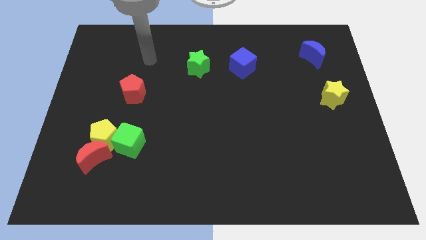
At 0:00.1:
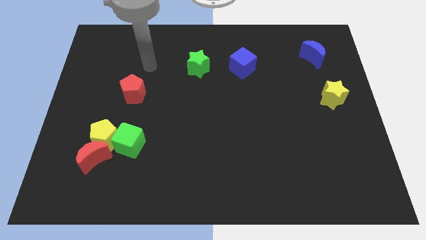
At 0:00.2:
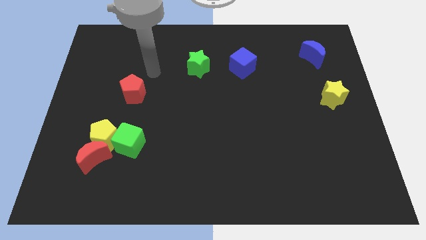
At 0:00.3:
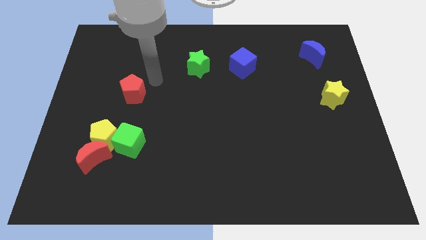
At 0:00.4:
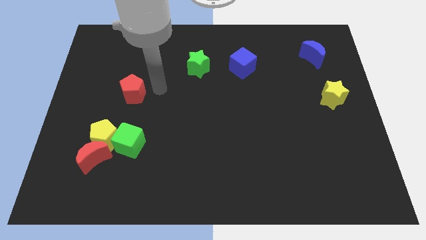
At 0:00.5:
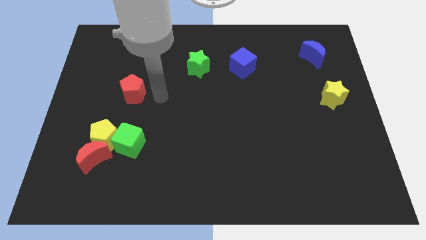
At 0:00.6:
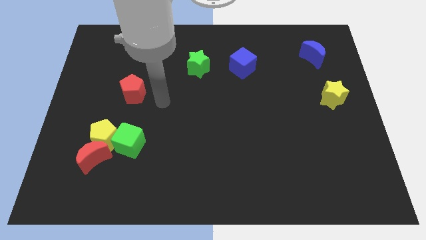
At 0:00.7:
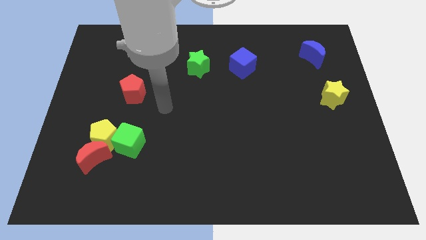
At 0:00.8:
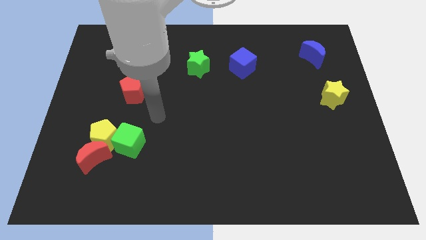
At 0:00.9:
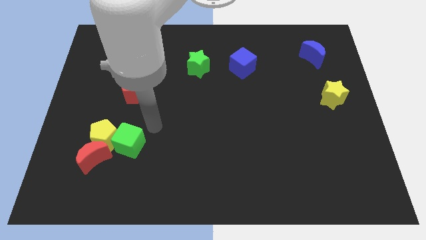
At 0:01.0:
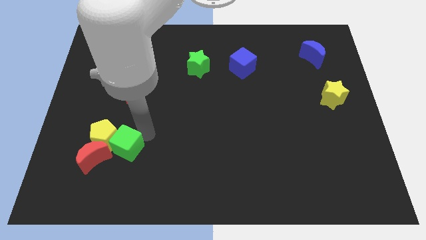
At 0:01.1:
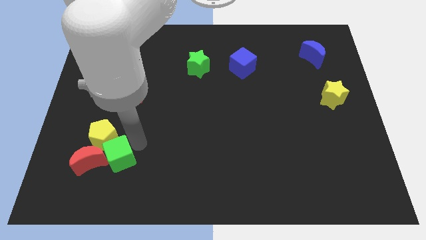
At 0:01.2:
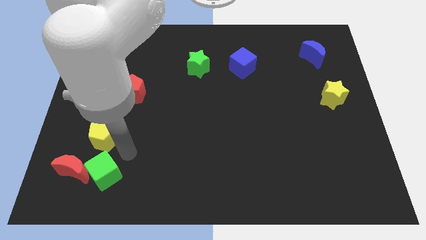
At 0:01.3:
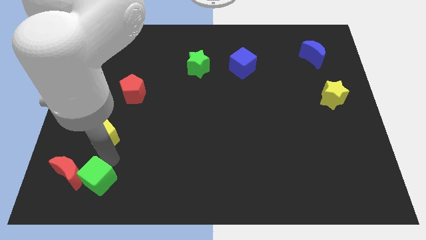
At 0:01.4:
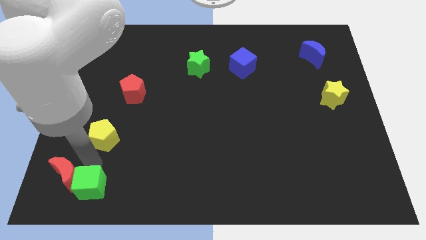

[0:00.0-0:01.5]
pull the yellow pentagon apart from the red moon and green cube

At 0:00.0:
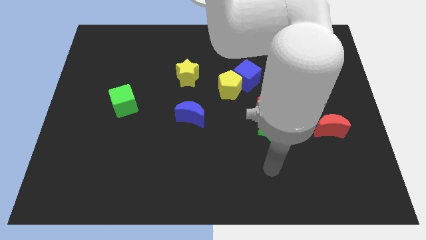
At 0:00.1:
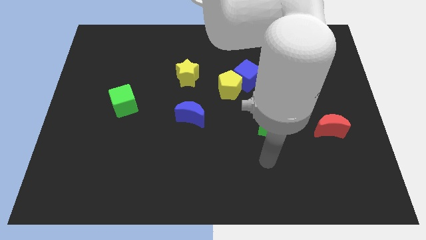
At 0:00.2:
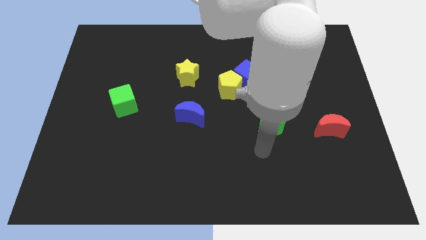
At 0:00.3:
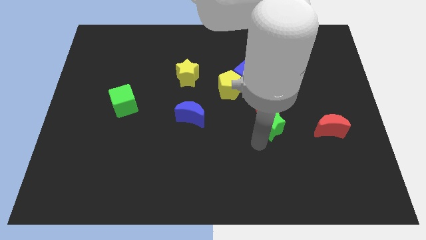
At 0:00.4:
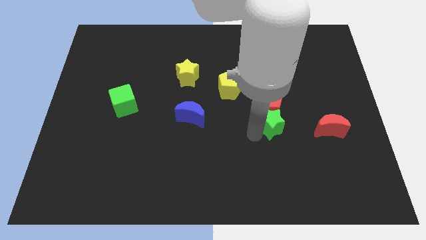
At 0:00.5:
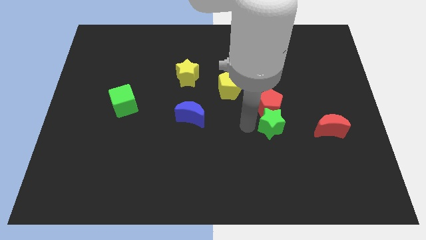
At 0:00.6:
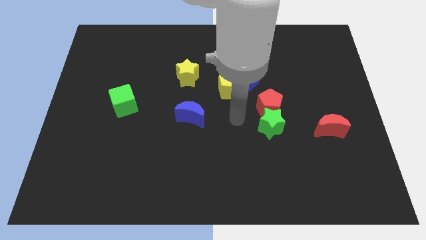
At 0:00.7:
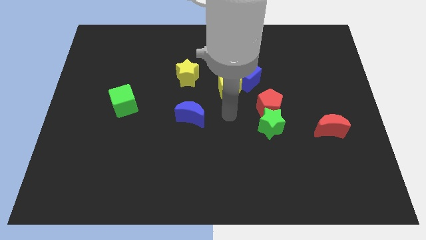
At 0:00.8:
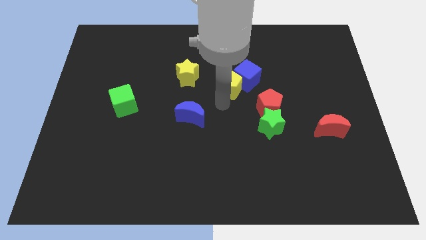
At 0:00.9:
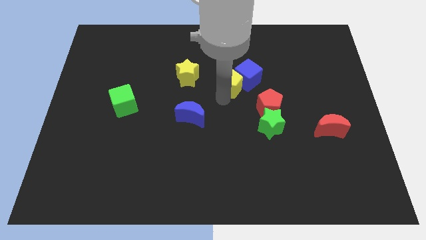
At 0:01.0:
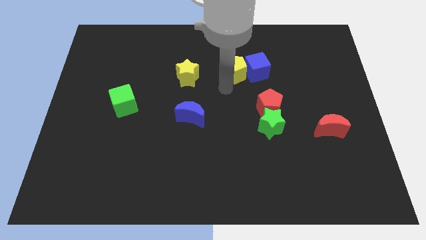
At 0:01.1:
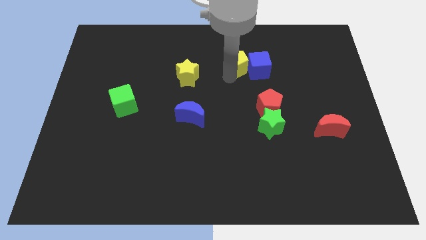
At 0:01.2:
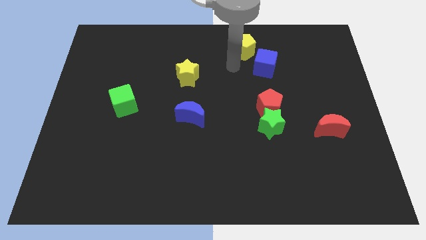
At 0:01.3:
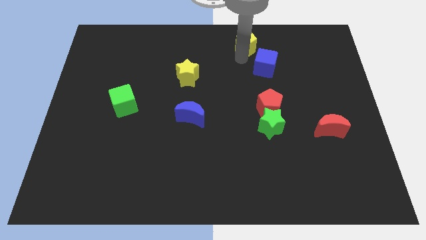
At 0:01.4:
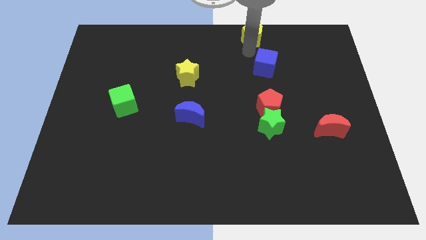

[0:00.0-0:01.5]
move the blue cube away from the yellow pentagon

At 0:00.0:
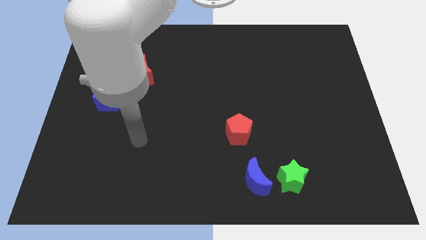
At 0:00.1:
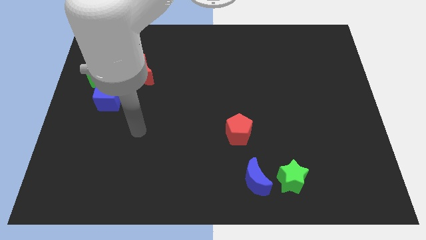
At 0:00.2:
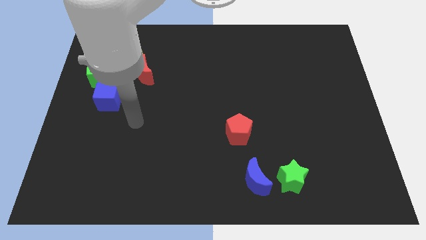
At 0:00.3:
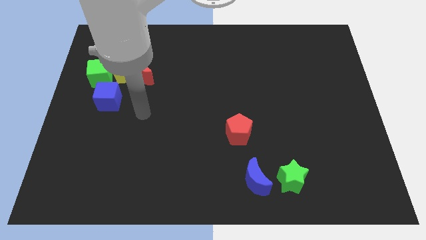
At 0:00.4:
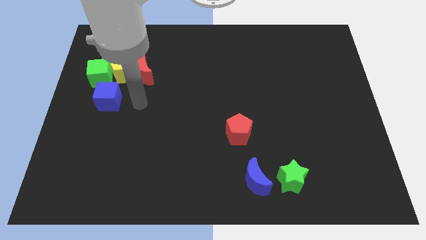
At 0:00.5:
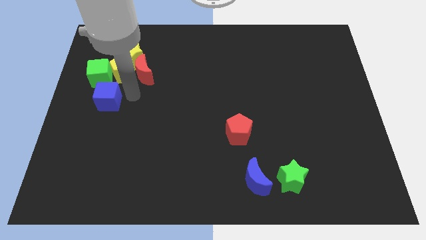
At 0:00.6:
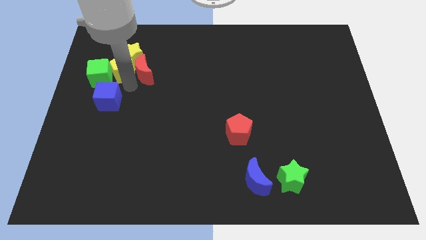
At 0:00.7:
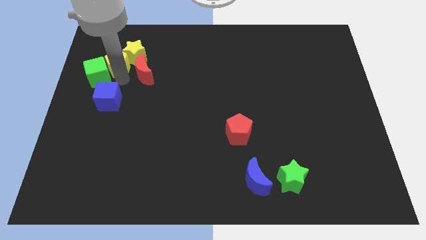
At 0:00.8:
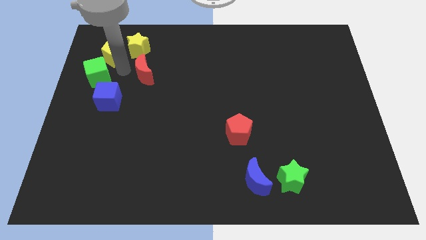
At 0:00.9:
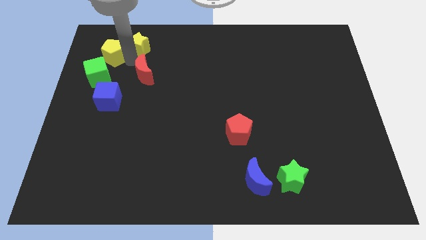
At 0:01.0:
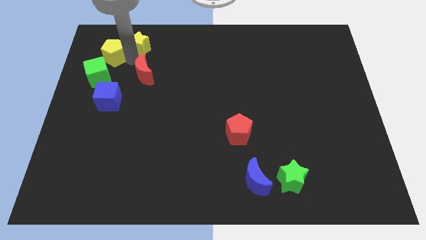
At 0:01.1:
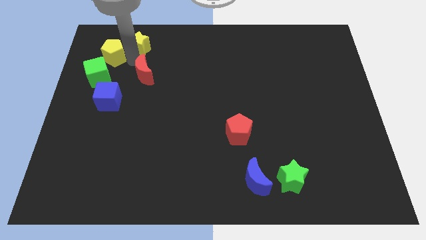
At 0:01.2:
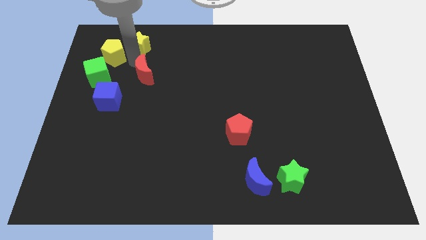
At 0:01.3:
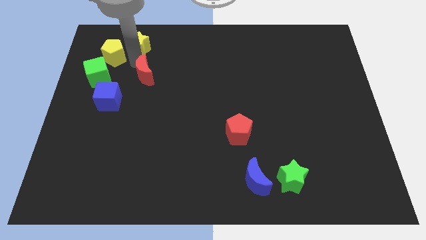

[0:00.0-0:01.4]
pull the red moon apart from the yellow pentagon and yellow star

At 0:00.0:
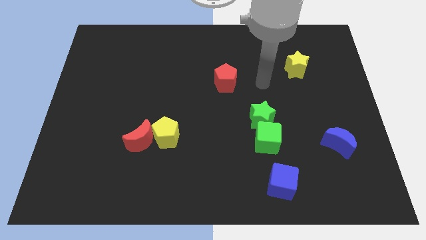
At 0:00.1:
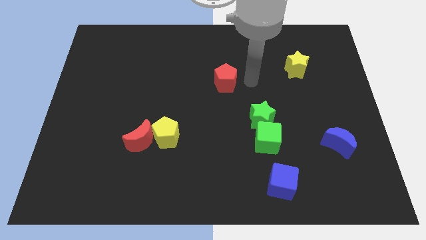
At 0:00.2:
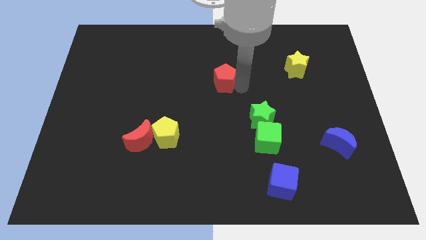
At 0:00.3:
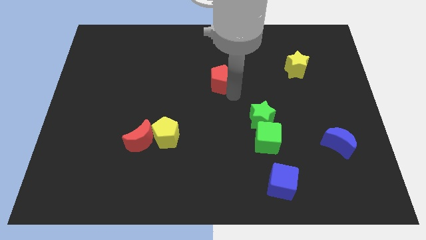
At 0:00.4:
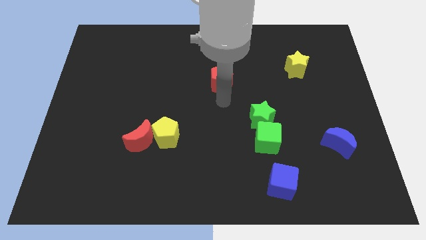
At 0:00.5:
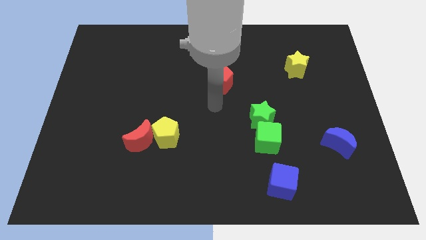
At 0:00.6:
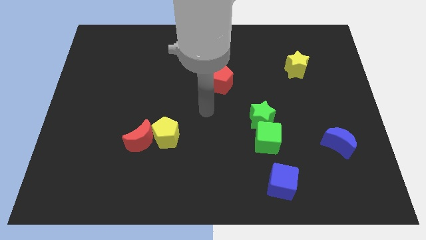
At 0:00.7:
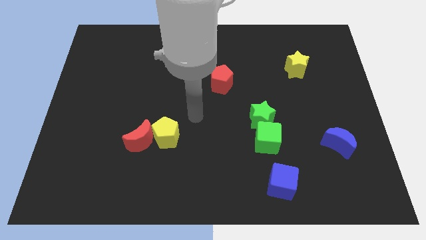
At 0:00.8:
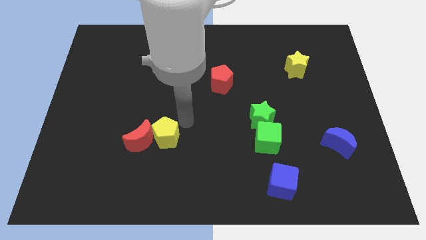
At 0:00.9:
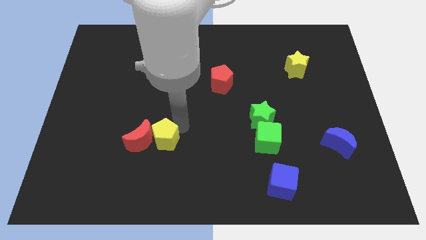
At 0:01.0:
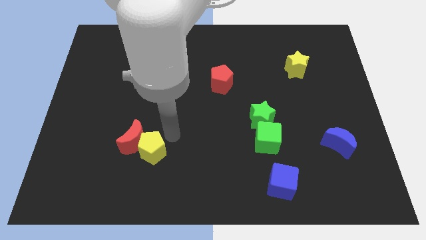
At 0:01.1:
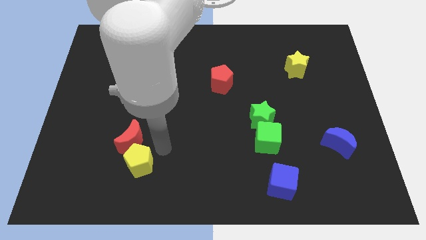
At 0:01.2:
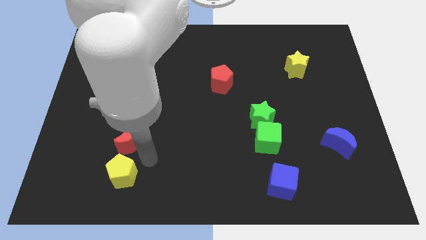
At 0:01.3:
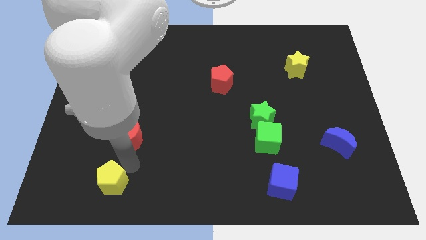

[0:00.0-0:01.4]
pull the red moon apart from the yellow pentagon

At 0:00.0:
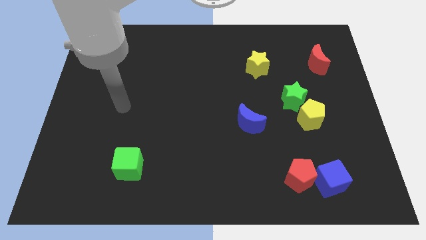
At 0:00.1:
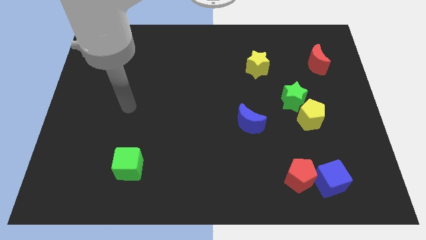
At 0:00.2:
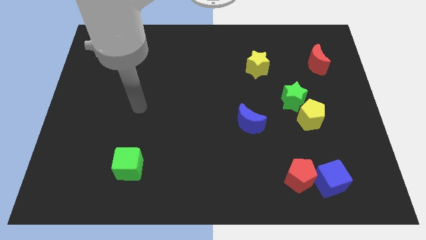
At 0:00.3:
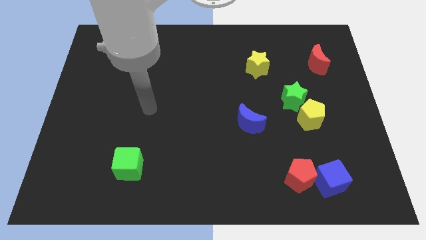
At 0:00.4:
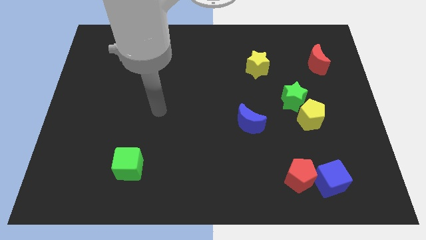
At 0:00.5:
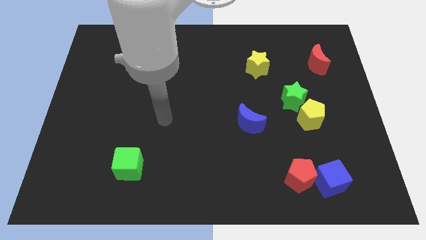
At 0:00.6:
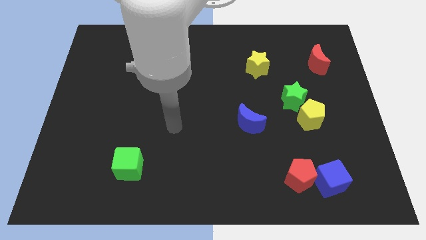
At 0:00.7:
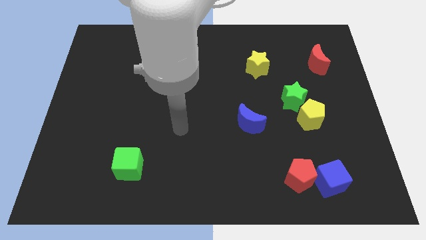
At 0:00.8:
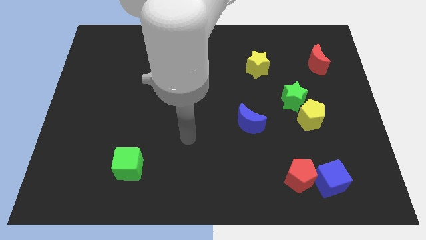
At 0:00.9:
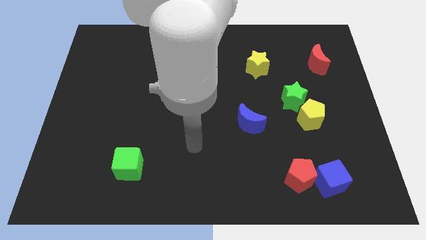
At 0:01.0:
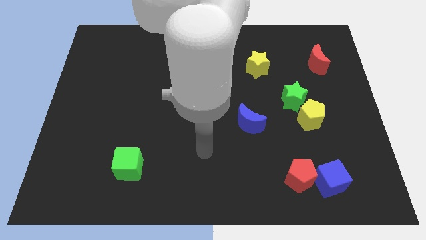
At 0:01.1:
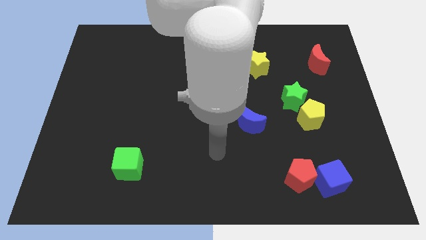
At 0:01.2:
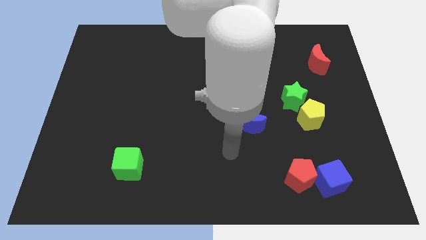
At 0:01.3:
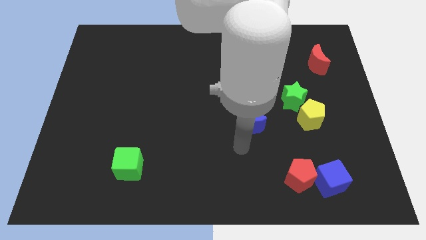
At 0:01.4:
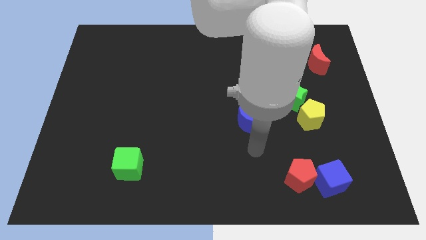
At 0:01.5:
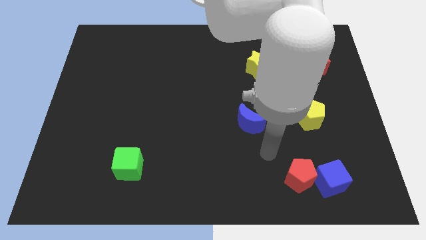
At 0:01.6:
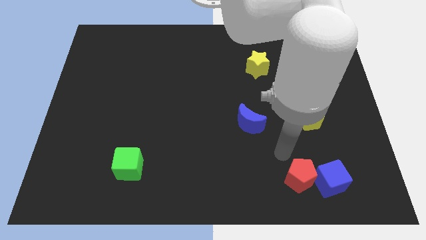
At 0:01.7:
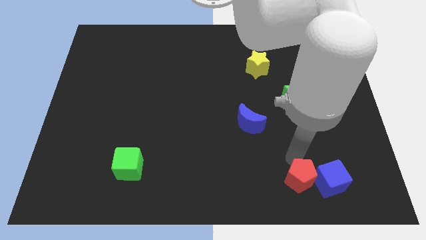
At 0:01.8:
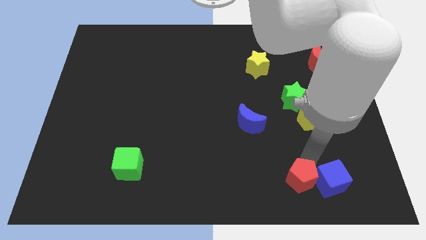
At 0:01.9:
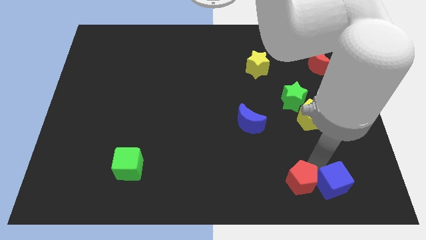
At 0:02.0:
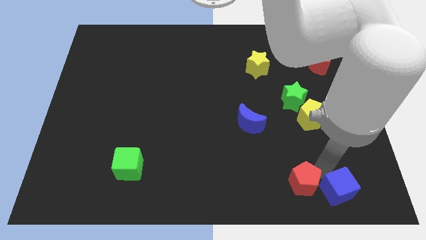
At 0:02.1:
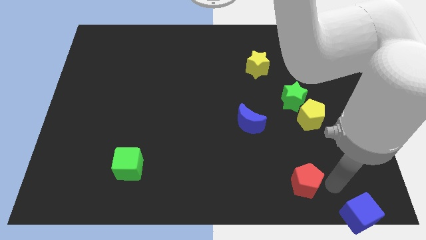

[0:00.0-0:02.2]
move the red pentagon away from the blue cube
